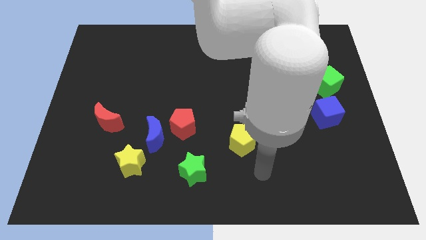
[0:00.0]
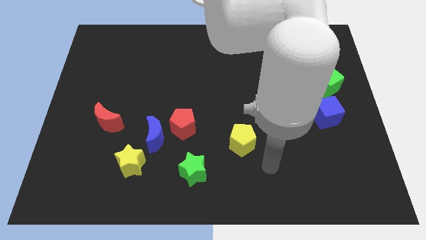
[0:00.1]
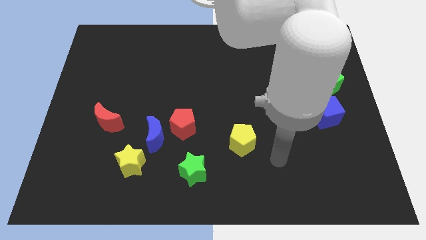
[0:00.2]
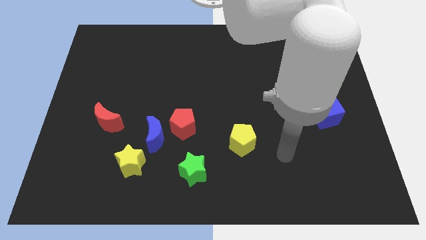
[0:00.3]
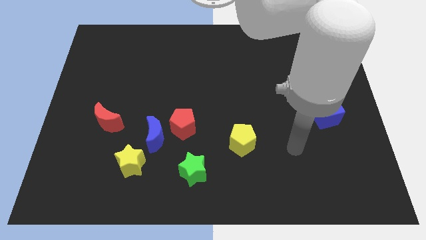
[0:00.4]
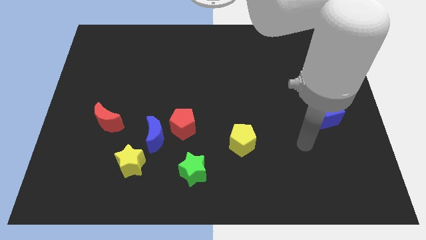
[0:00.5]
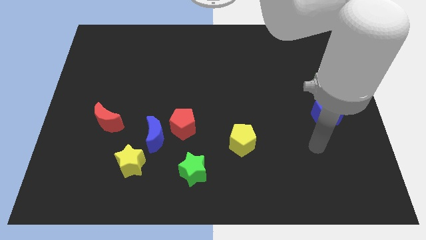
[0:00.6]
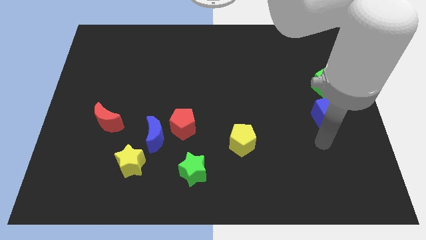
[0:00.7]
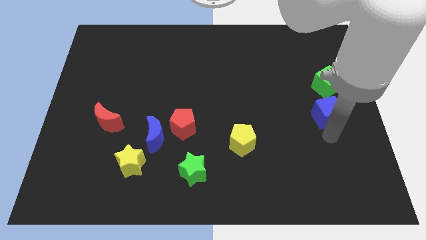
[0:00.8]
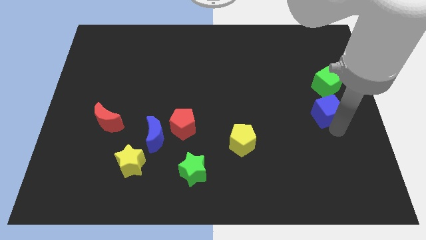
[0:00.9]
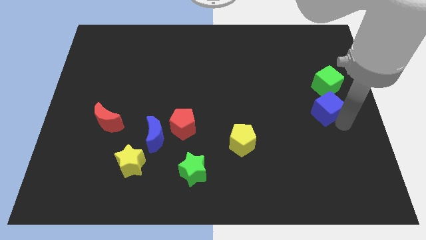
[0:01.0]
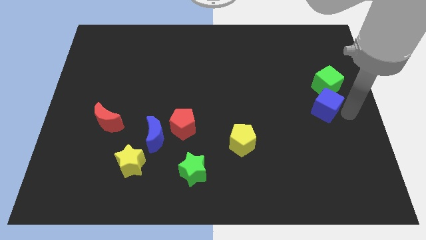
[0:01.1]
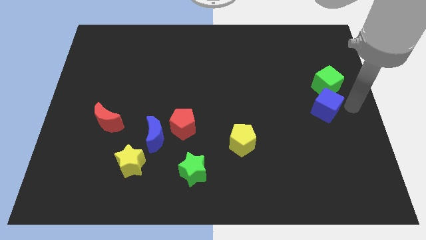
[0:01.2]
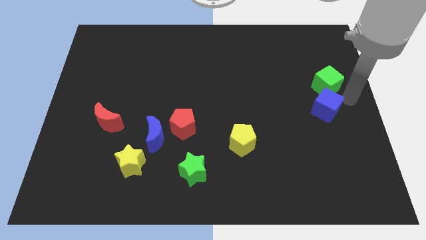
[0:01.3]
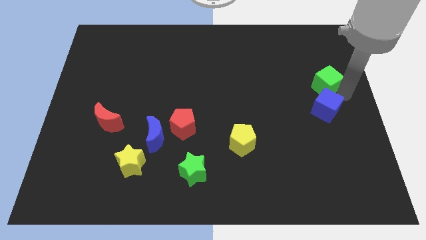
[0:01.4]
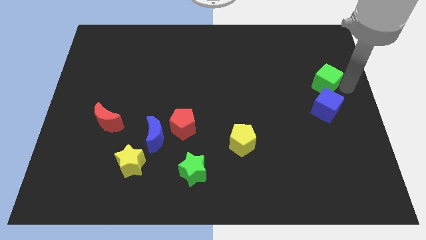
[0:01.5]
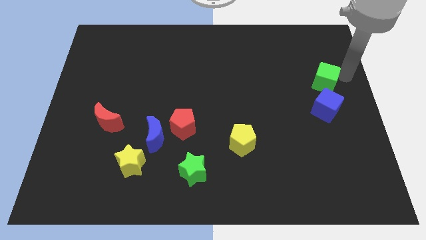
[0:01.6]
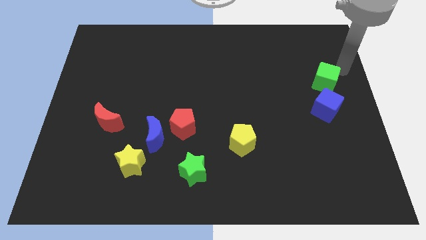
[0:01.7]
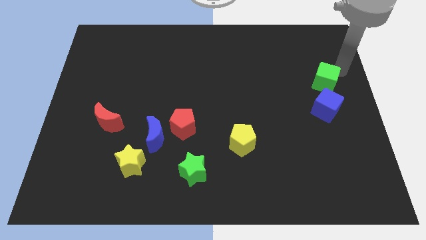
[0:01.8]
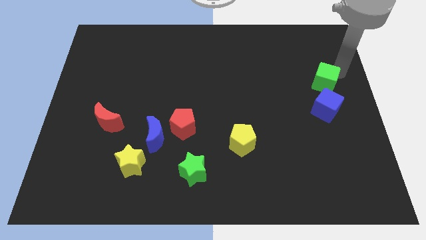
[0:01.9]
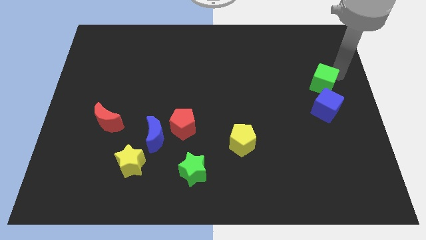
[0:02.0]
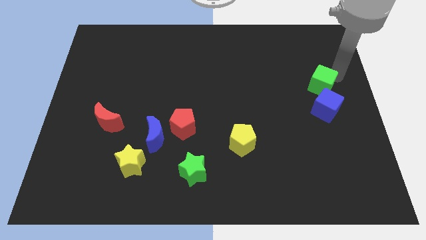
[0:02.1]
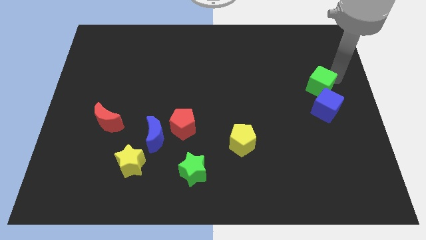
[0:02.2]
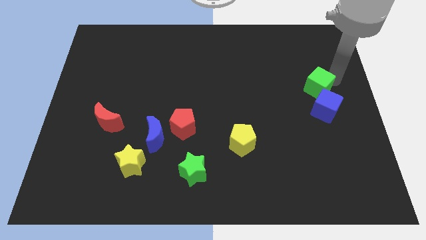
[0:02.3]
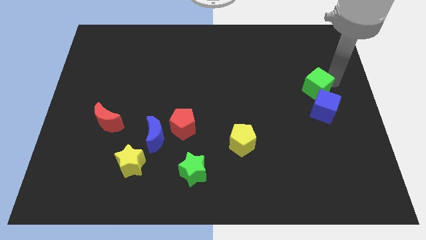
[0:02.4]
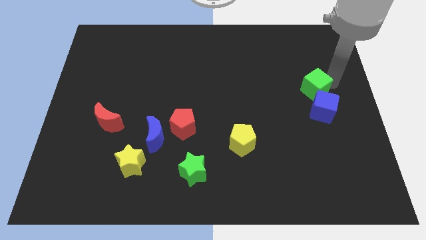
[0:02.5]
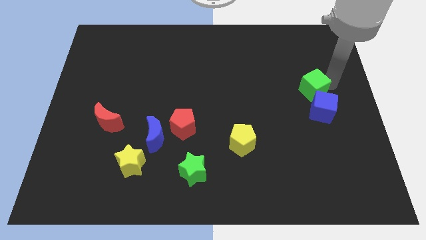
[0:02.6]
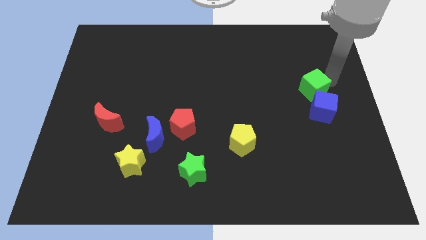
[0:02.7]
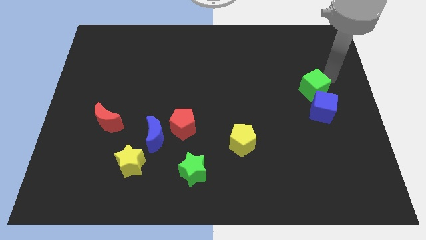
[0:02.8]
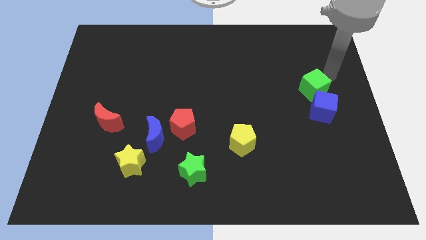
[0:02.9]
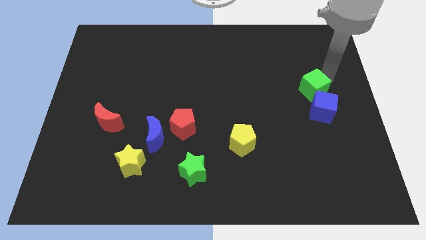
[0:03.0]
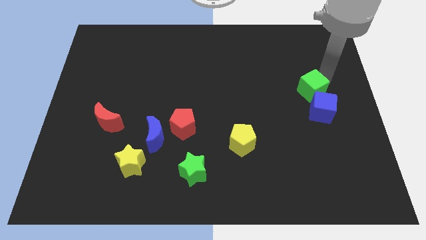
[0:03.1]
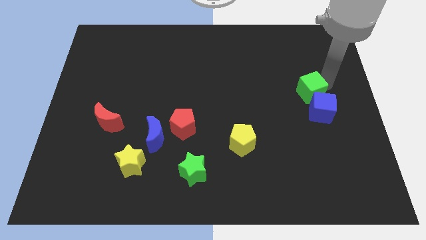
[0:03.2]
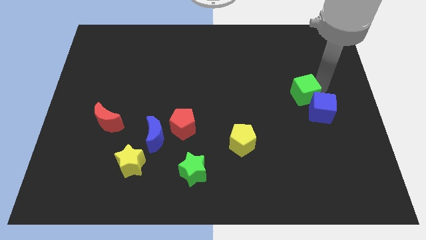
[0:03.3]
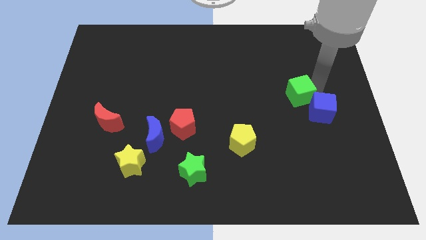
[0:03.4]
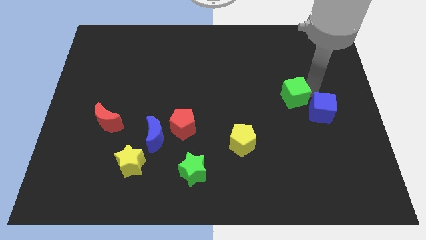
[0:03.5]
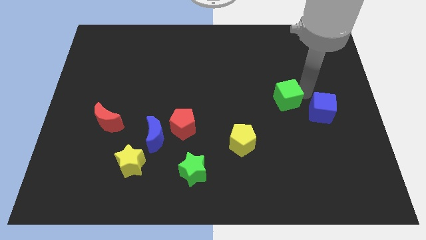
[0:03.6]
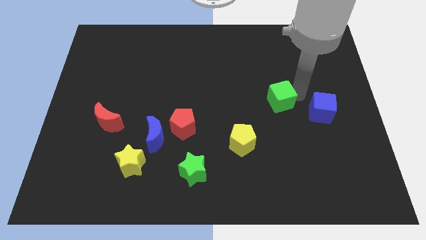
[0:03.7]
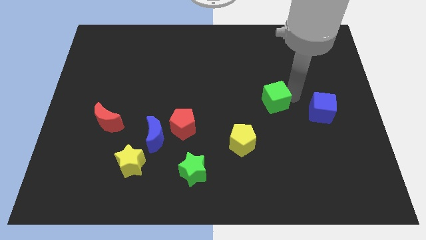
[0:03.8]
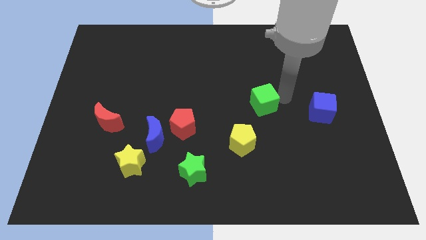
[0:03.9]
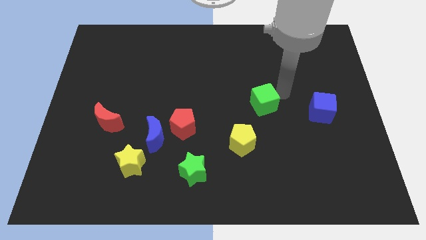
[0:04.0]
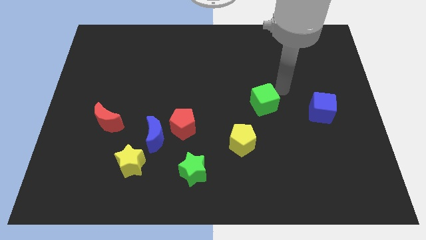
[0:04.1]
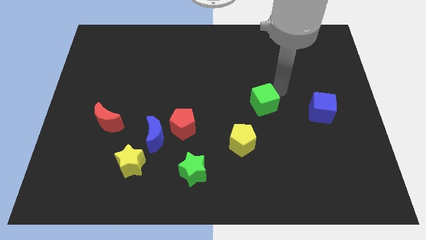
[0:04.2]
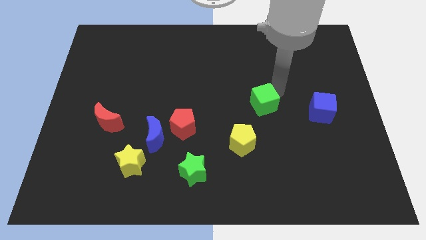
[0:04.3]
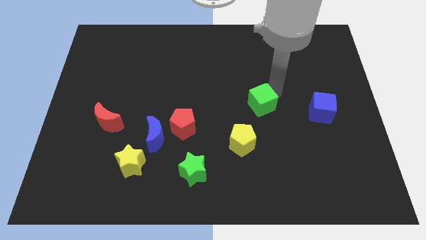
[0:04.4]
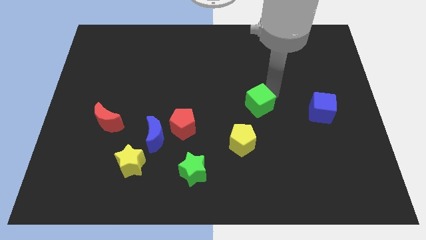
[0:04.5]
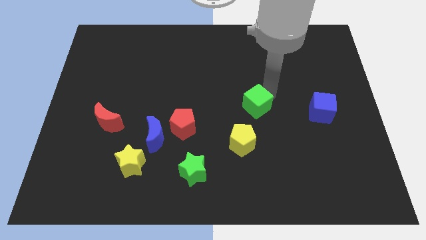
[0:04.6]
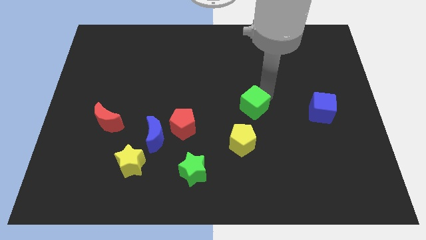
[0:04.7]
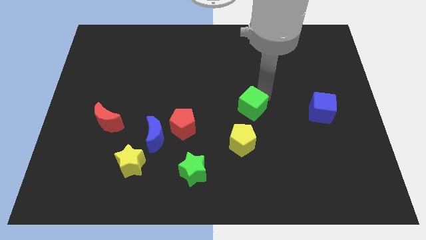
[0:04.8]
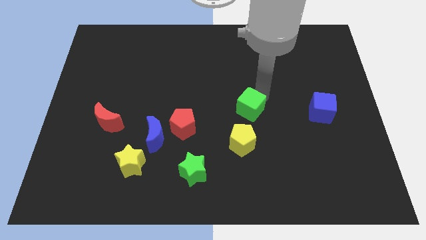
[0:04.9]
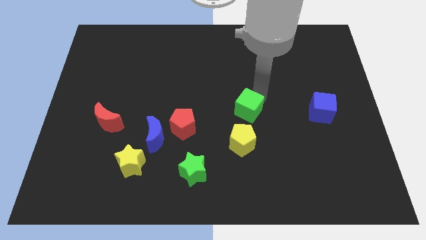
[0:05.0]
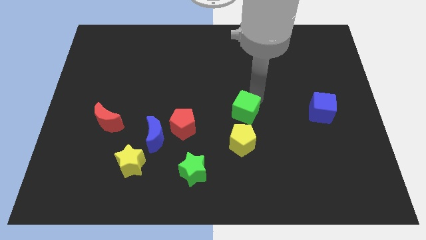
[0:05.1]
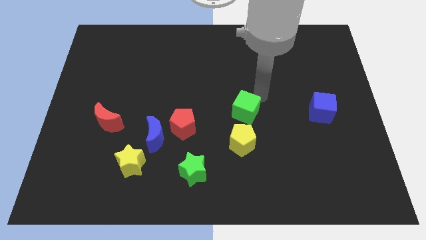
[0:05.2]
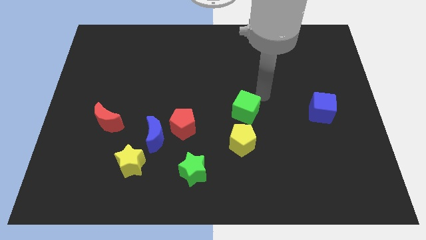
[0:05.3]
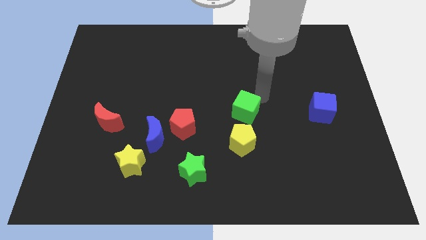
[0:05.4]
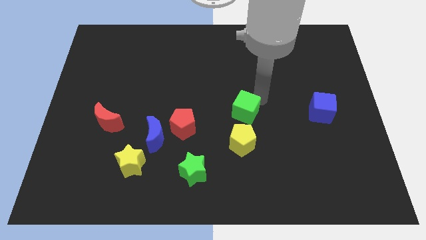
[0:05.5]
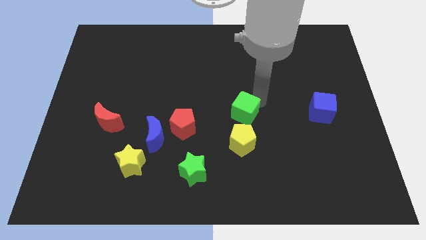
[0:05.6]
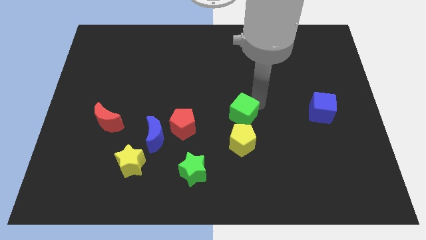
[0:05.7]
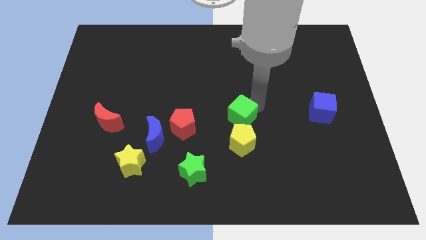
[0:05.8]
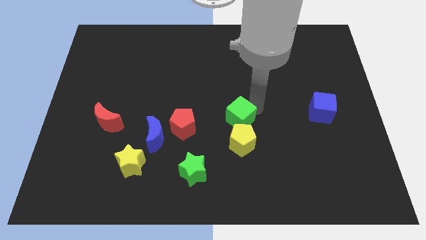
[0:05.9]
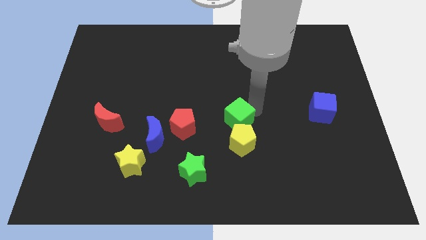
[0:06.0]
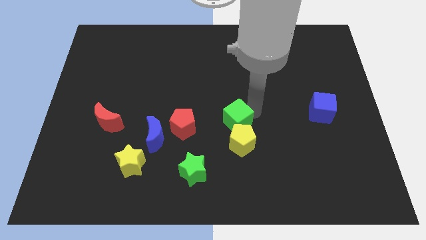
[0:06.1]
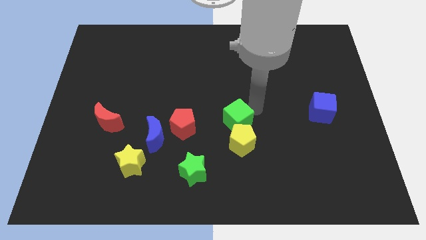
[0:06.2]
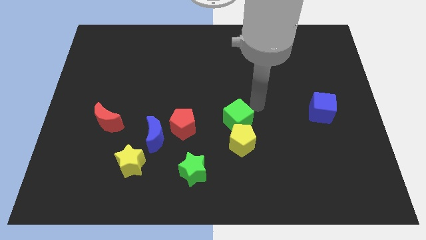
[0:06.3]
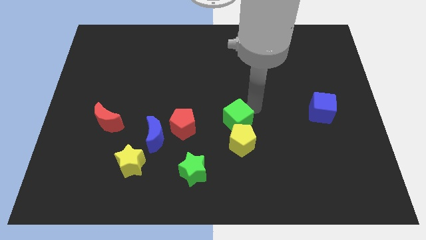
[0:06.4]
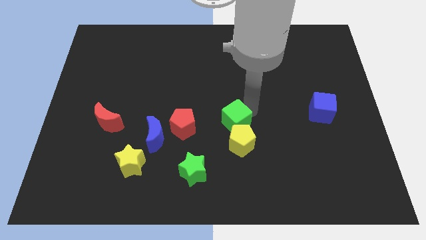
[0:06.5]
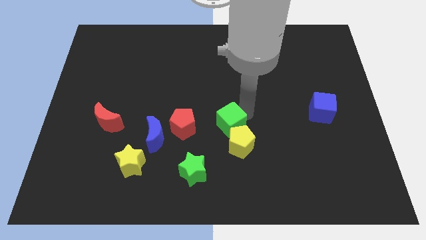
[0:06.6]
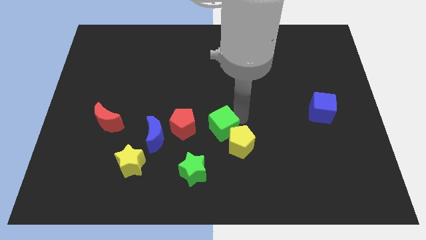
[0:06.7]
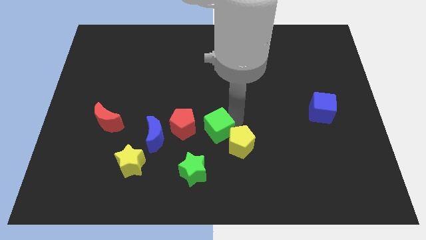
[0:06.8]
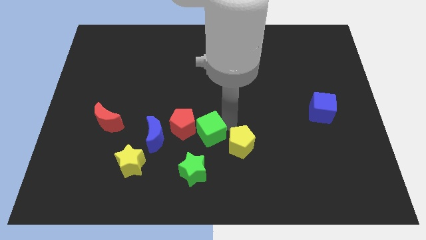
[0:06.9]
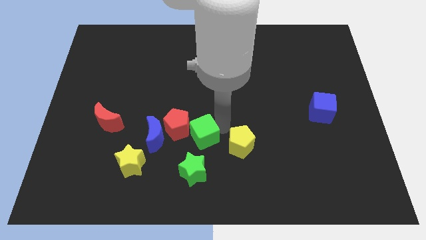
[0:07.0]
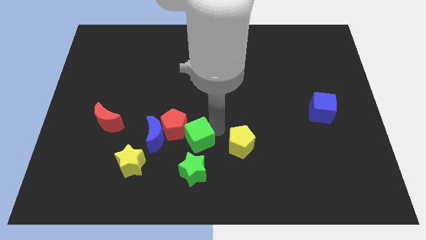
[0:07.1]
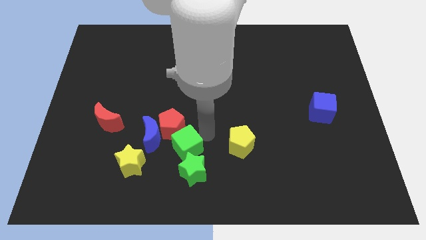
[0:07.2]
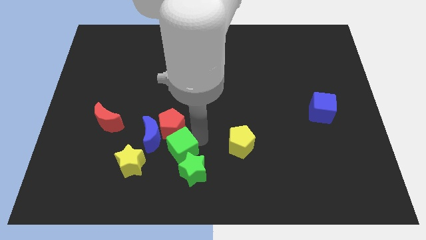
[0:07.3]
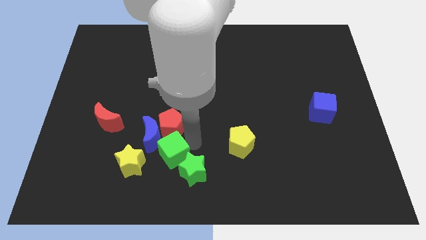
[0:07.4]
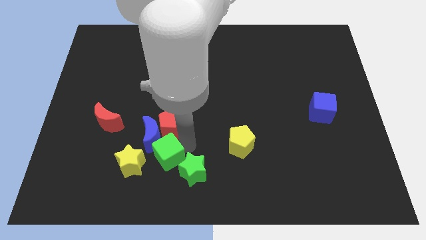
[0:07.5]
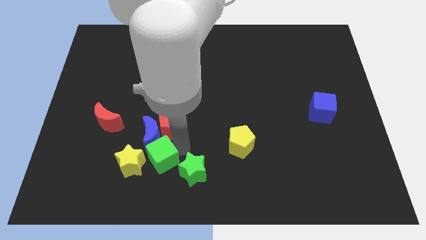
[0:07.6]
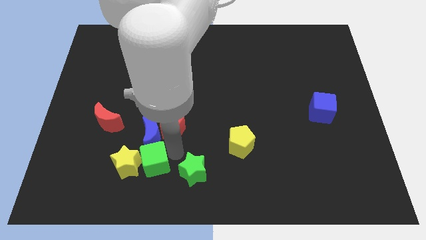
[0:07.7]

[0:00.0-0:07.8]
put the green cube to the yellow star

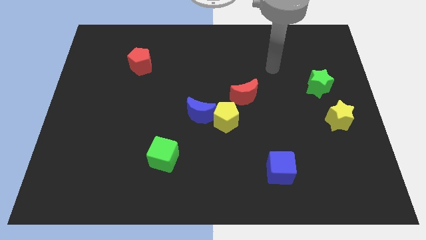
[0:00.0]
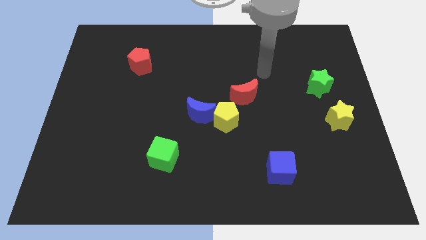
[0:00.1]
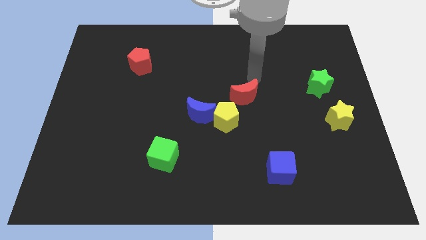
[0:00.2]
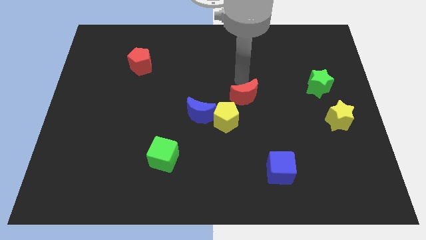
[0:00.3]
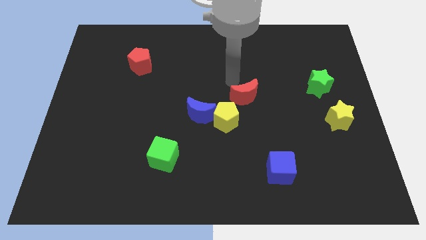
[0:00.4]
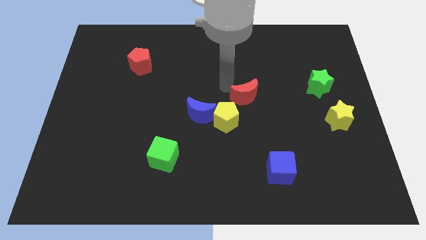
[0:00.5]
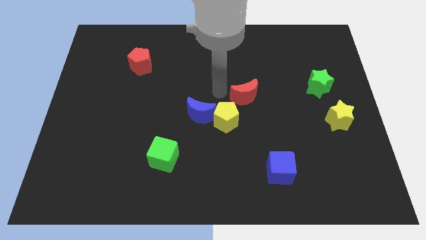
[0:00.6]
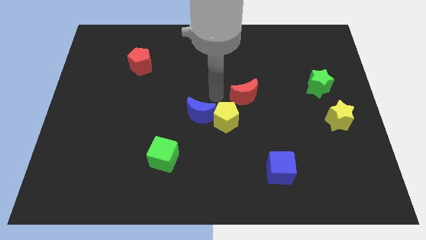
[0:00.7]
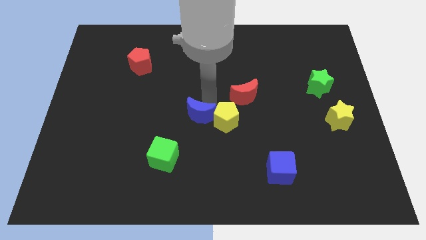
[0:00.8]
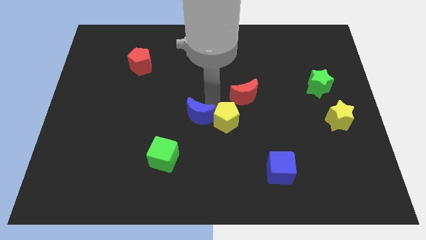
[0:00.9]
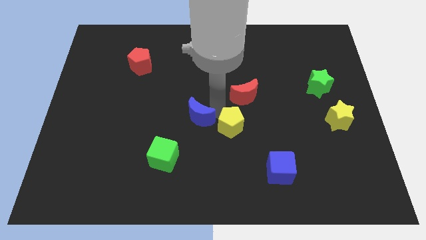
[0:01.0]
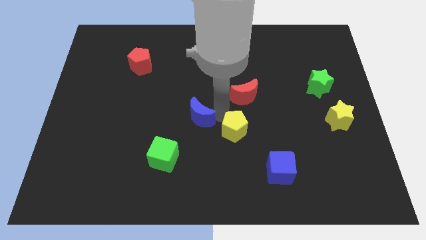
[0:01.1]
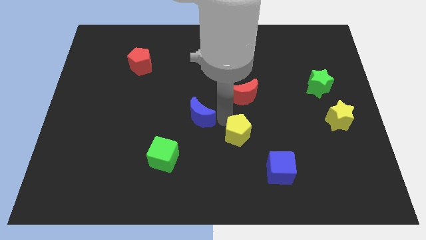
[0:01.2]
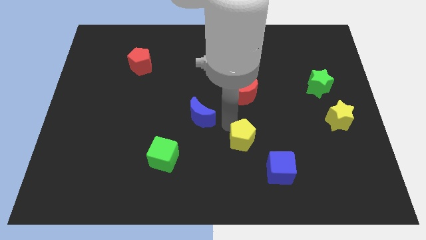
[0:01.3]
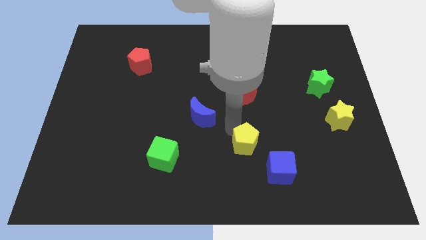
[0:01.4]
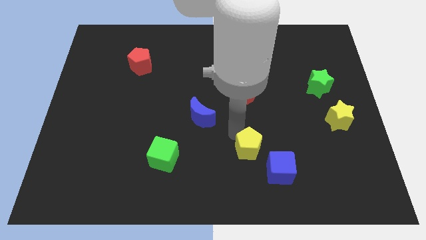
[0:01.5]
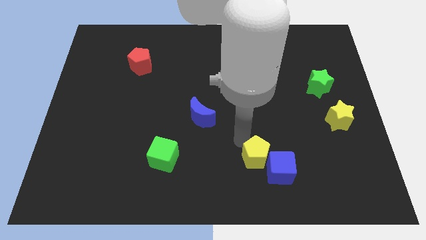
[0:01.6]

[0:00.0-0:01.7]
move the yellow pentagon next to the blue cube
